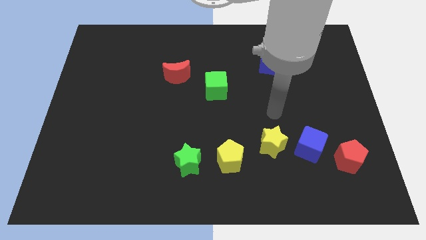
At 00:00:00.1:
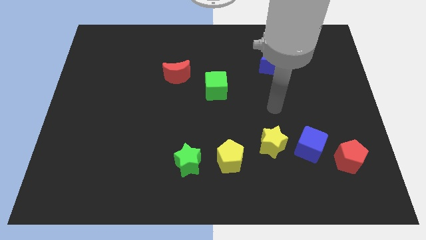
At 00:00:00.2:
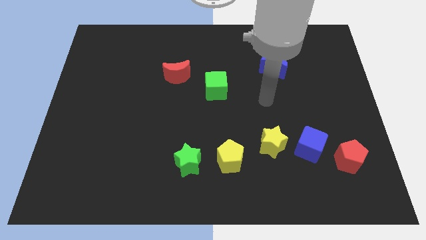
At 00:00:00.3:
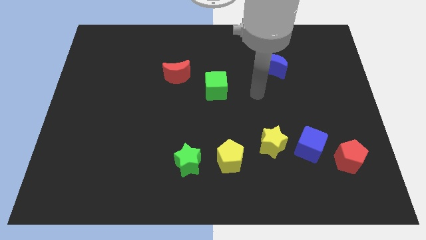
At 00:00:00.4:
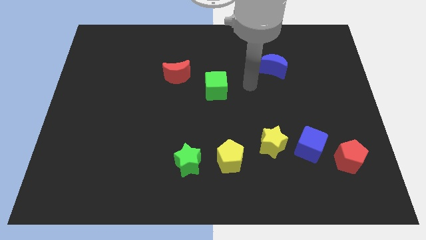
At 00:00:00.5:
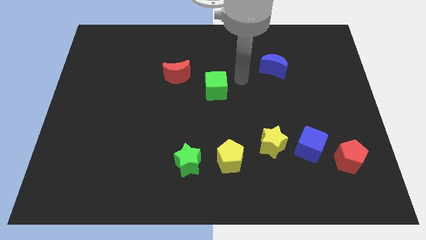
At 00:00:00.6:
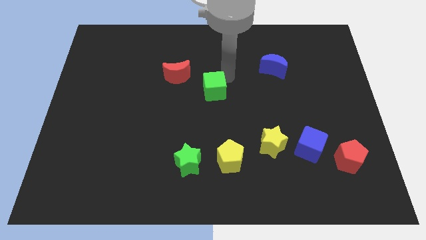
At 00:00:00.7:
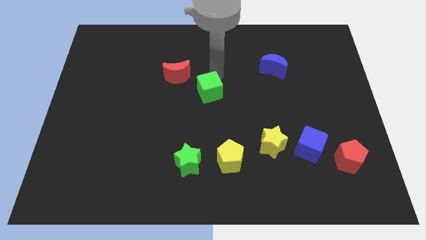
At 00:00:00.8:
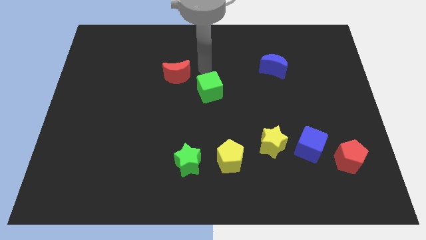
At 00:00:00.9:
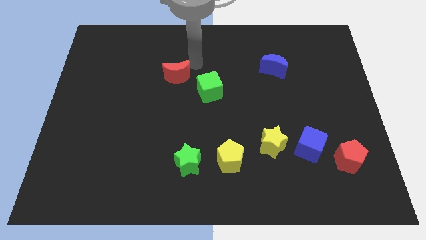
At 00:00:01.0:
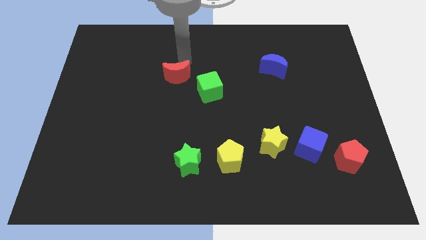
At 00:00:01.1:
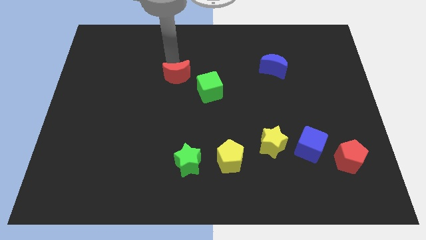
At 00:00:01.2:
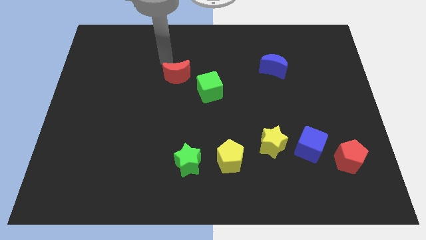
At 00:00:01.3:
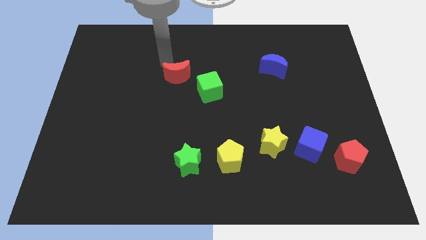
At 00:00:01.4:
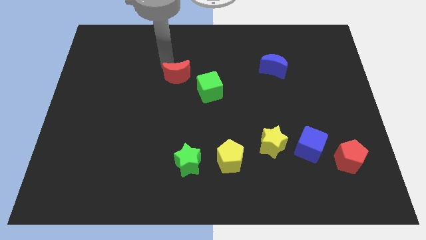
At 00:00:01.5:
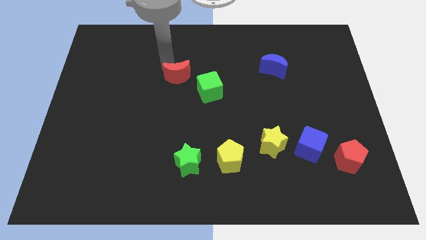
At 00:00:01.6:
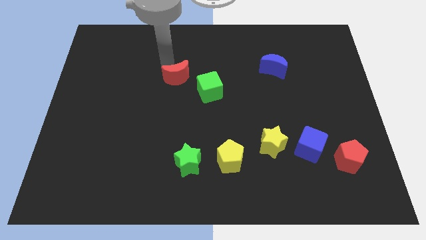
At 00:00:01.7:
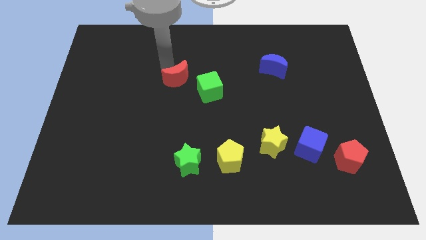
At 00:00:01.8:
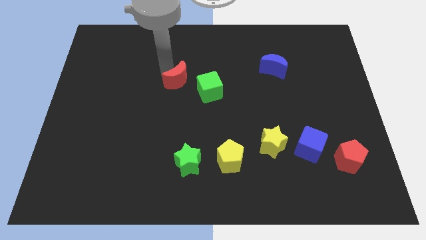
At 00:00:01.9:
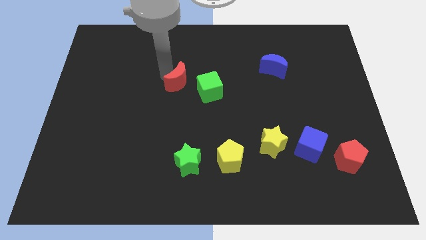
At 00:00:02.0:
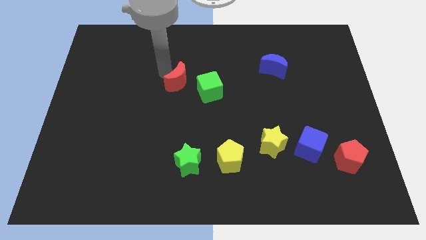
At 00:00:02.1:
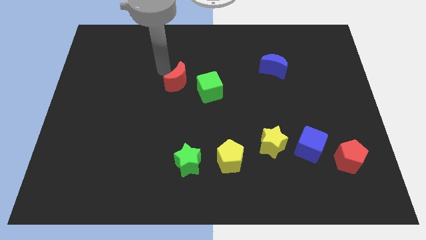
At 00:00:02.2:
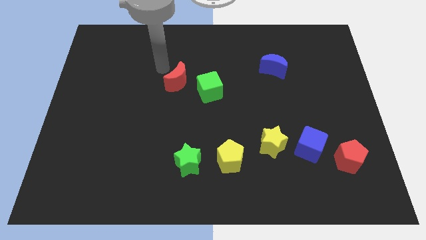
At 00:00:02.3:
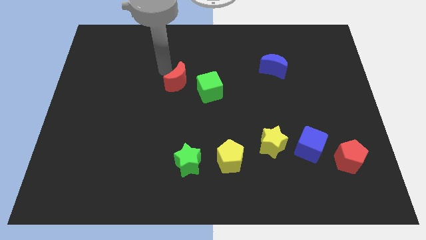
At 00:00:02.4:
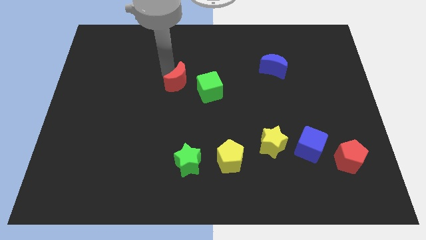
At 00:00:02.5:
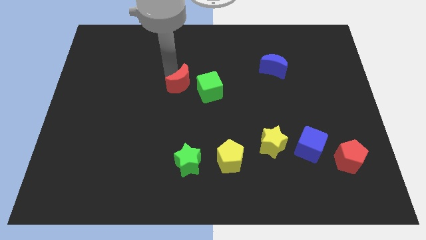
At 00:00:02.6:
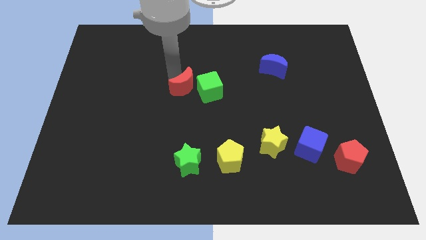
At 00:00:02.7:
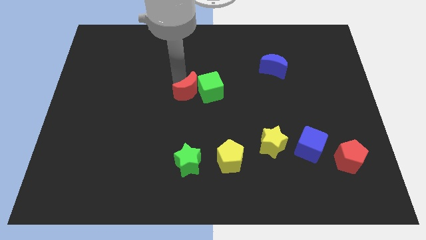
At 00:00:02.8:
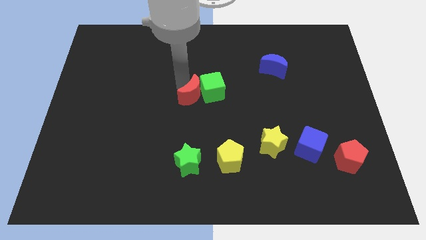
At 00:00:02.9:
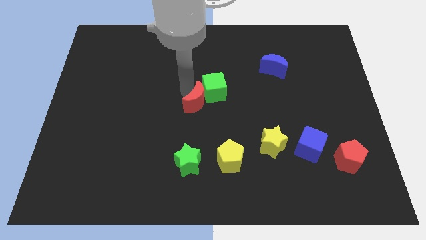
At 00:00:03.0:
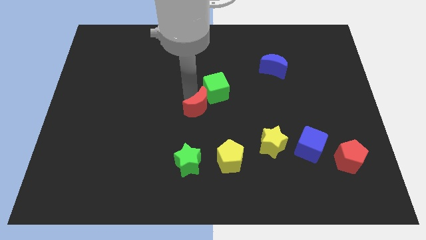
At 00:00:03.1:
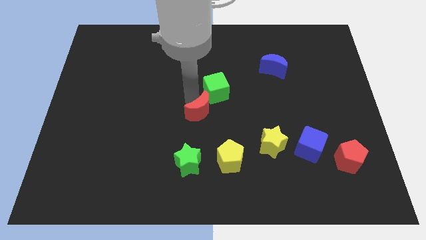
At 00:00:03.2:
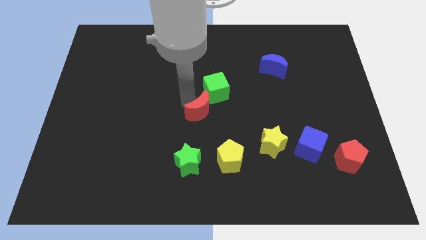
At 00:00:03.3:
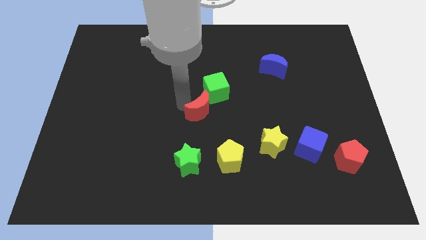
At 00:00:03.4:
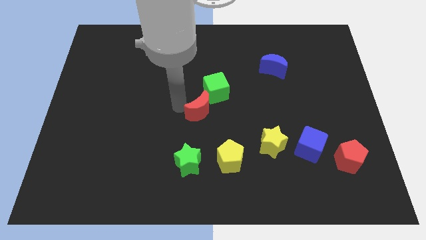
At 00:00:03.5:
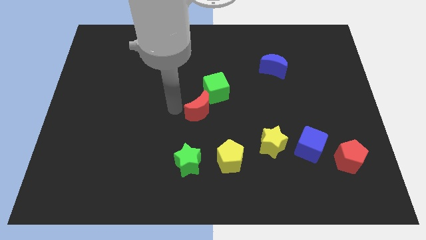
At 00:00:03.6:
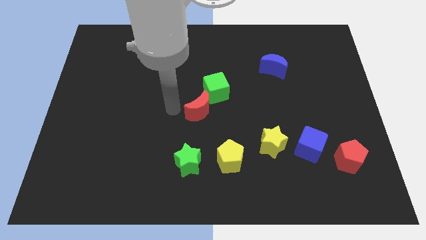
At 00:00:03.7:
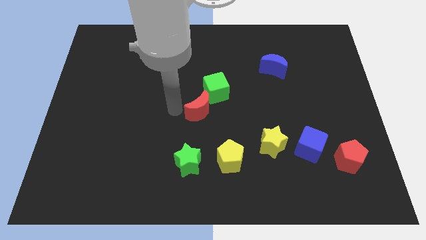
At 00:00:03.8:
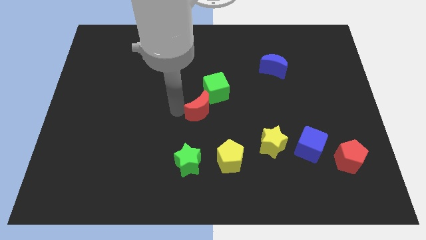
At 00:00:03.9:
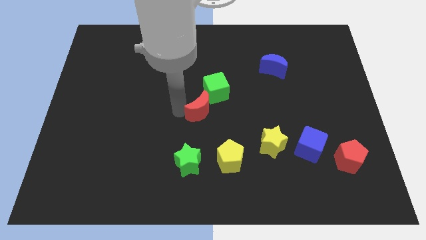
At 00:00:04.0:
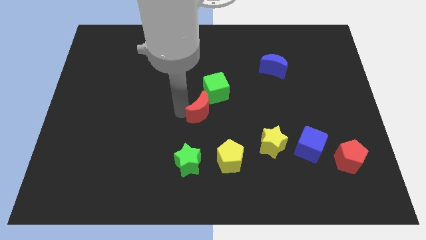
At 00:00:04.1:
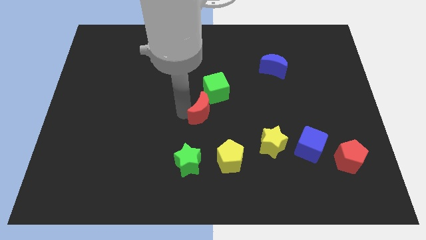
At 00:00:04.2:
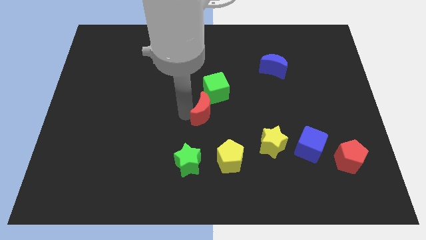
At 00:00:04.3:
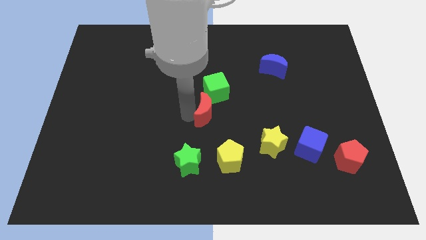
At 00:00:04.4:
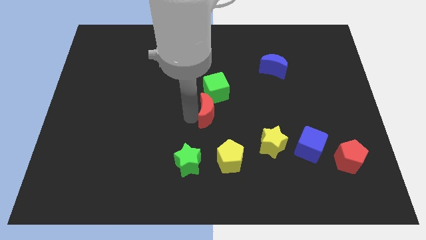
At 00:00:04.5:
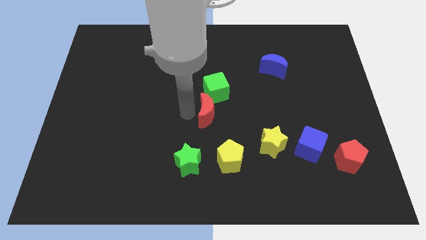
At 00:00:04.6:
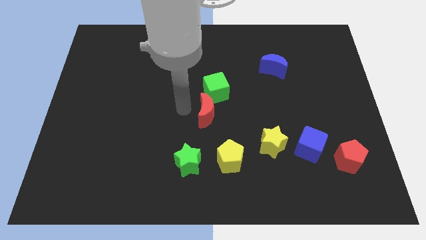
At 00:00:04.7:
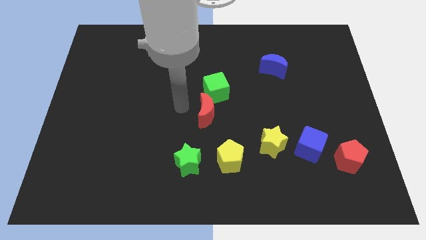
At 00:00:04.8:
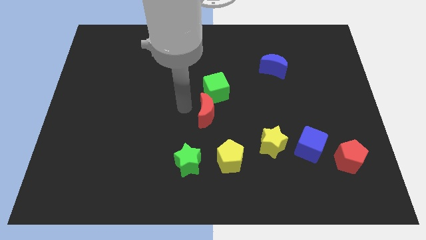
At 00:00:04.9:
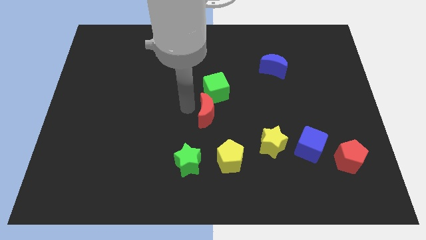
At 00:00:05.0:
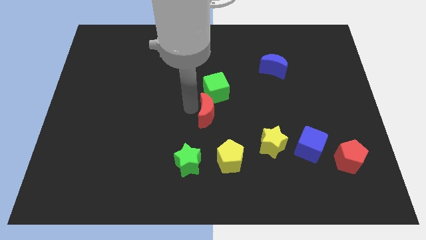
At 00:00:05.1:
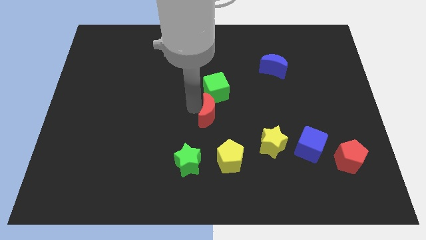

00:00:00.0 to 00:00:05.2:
put the red moon above the yellow pentagon

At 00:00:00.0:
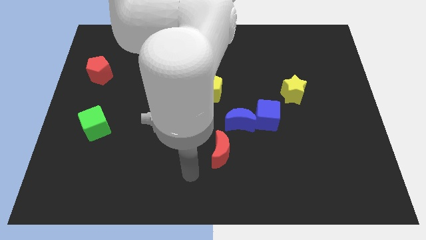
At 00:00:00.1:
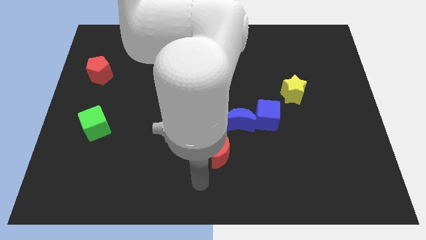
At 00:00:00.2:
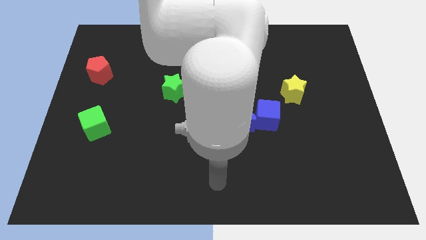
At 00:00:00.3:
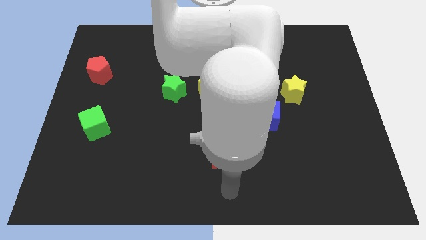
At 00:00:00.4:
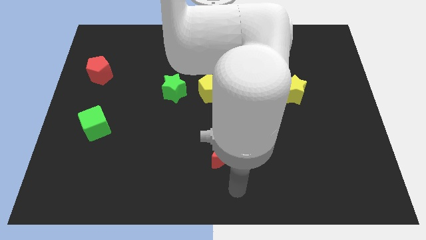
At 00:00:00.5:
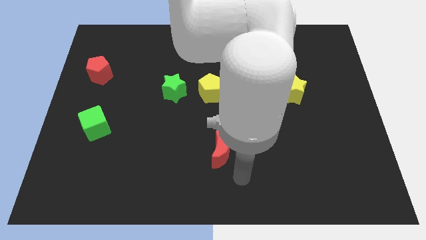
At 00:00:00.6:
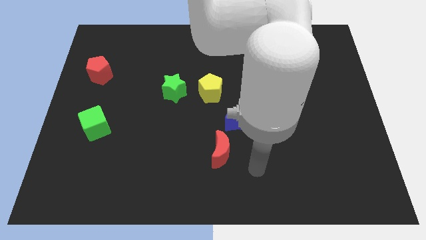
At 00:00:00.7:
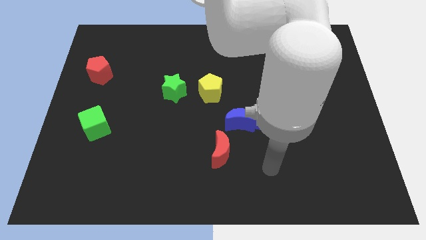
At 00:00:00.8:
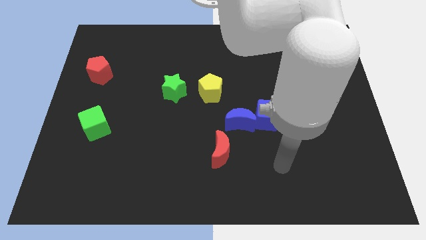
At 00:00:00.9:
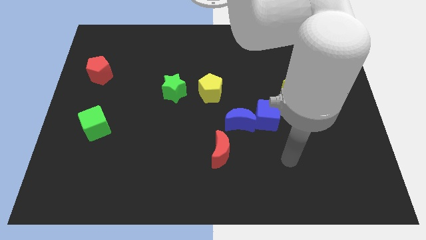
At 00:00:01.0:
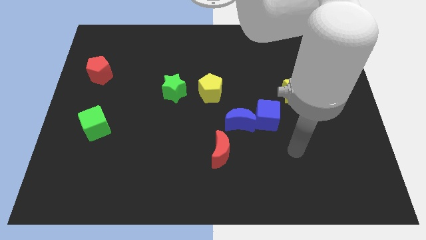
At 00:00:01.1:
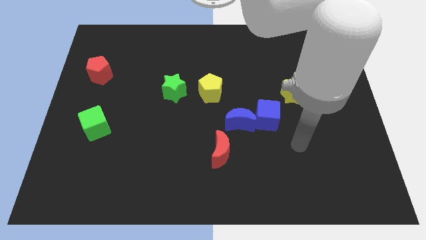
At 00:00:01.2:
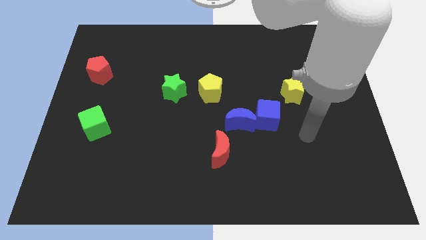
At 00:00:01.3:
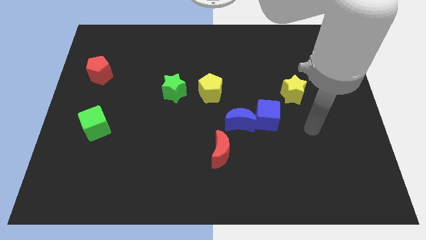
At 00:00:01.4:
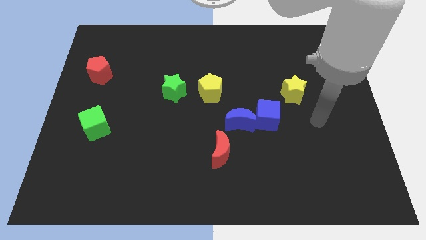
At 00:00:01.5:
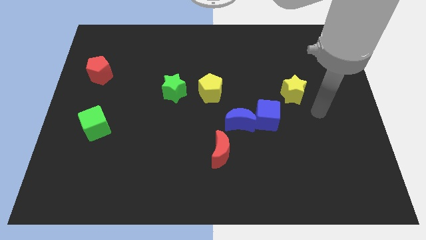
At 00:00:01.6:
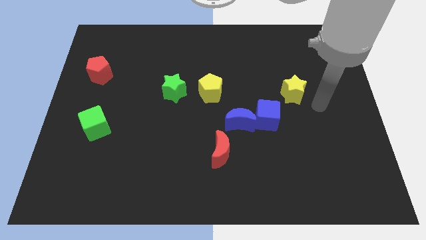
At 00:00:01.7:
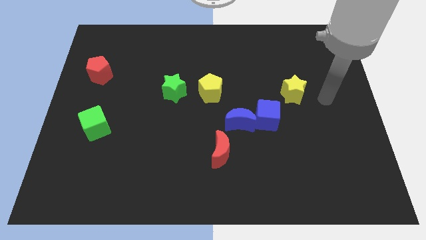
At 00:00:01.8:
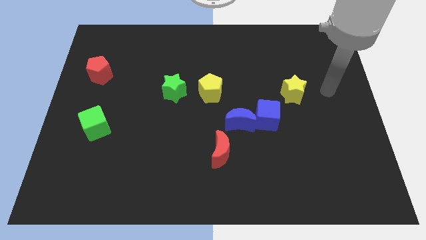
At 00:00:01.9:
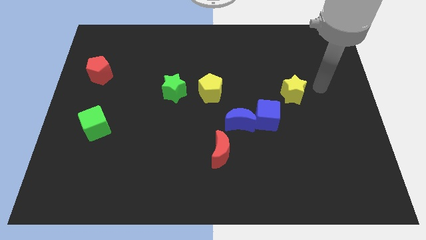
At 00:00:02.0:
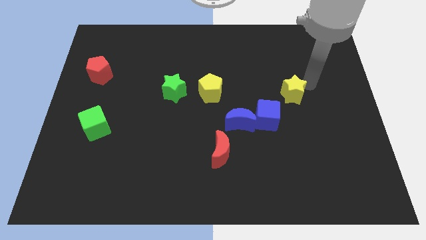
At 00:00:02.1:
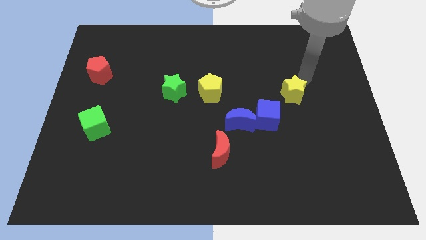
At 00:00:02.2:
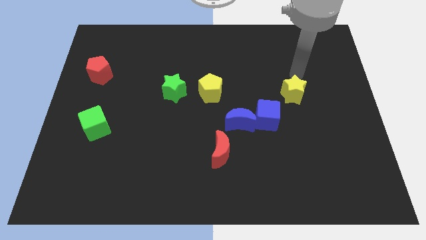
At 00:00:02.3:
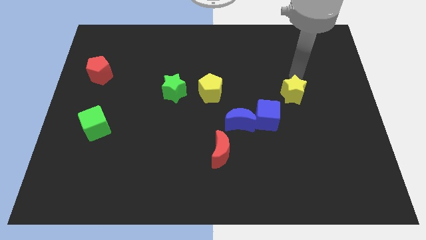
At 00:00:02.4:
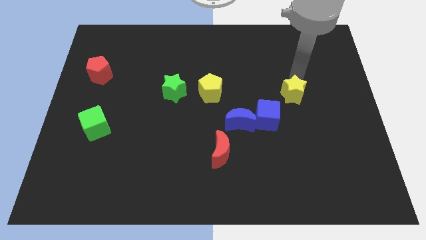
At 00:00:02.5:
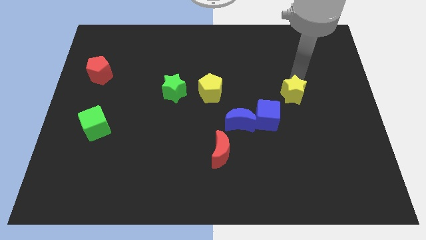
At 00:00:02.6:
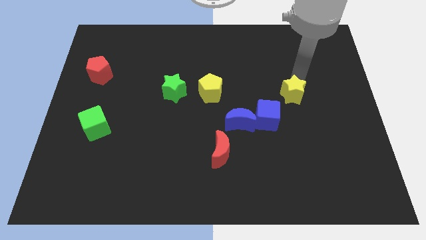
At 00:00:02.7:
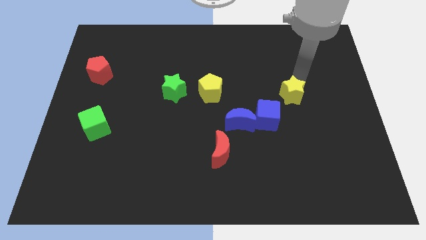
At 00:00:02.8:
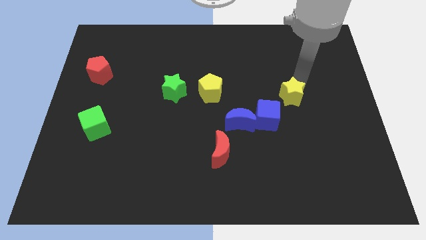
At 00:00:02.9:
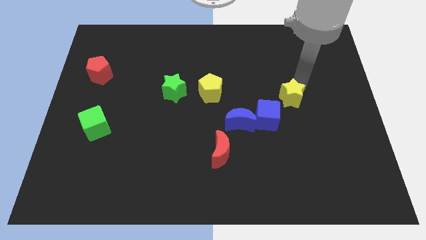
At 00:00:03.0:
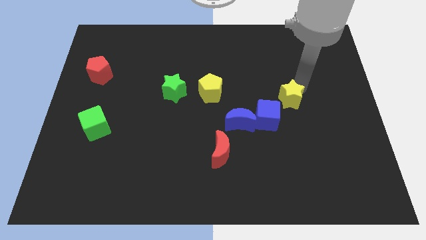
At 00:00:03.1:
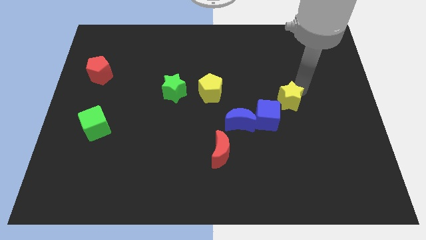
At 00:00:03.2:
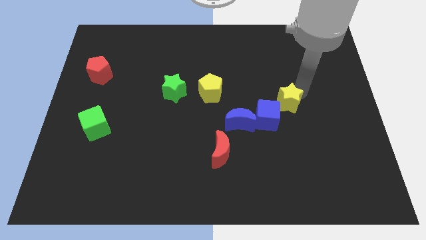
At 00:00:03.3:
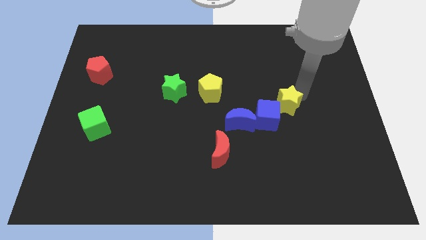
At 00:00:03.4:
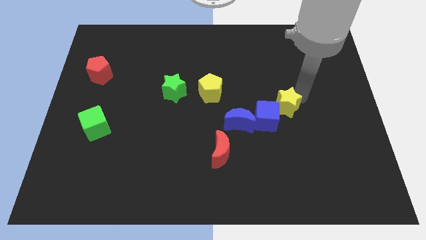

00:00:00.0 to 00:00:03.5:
push the yellow star to the right of the blue moon
